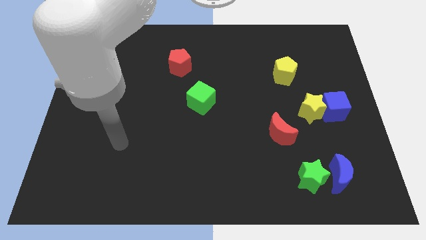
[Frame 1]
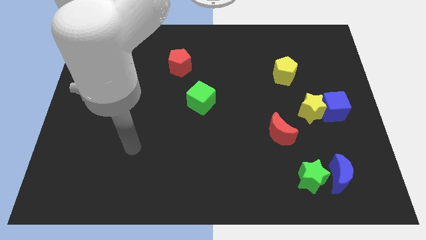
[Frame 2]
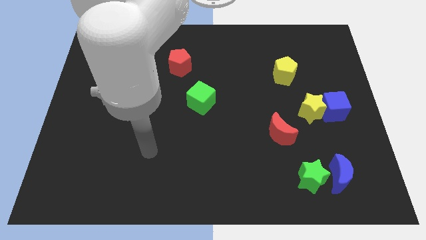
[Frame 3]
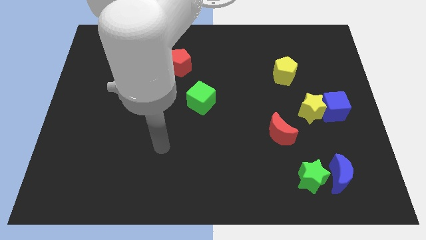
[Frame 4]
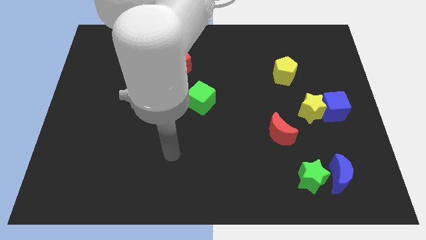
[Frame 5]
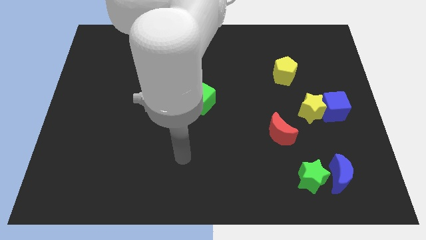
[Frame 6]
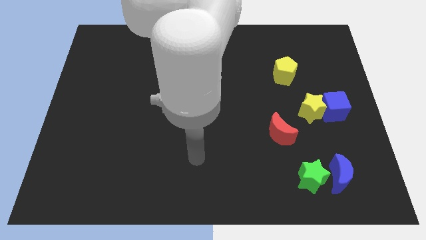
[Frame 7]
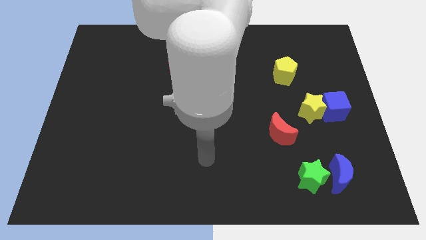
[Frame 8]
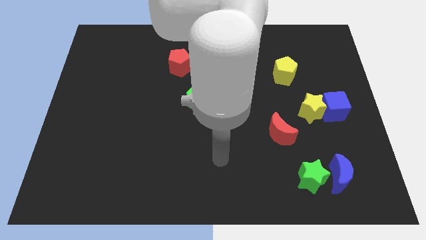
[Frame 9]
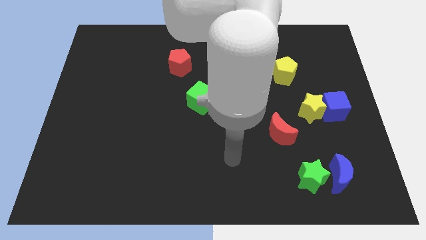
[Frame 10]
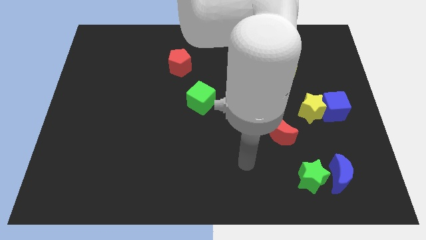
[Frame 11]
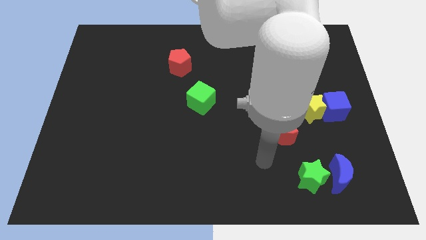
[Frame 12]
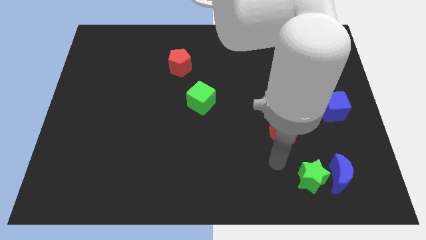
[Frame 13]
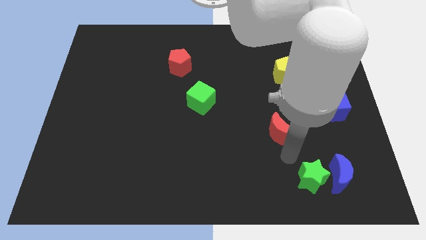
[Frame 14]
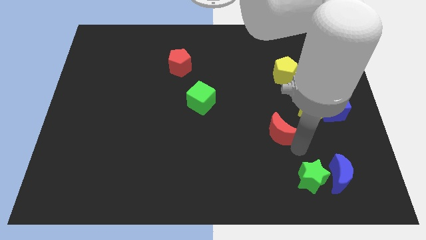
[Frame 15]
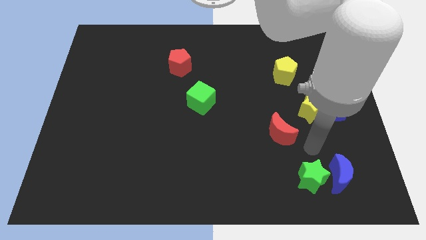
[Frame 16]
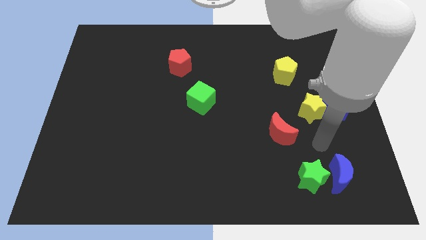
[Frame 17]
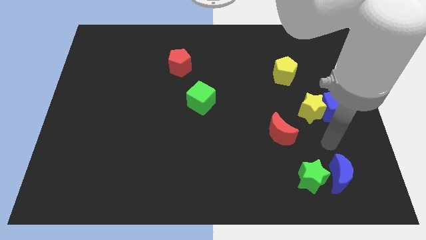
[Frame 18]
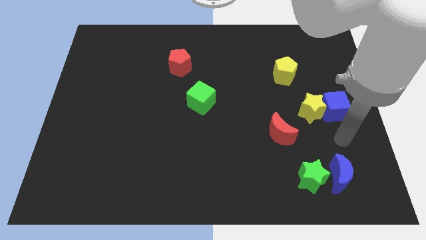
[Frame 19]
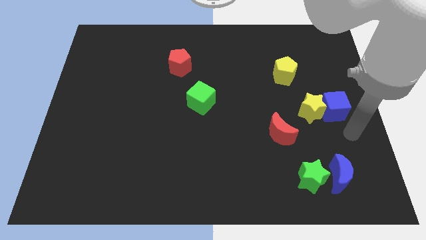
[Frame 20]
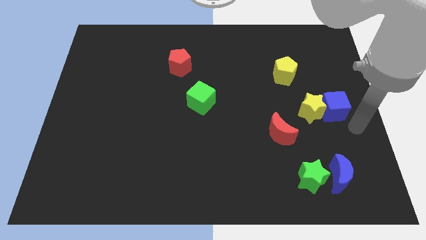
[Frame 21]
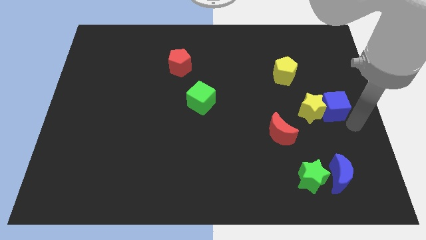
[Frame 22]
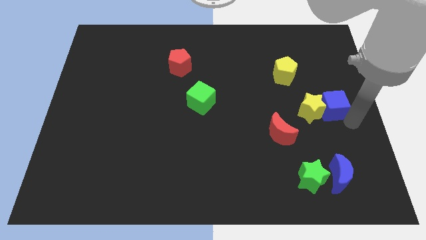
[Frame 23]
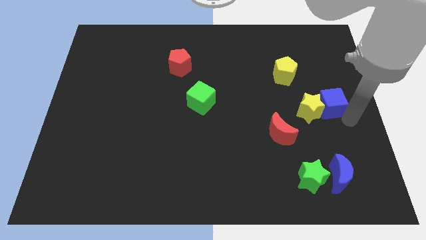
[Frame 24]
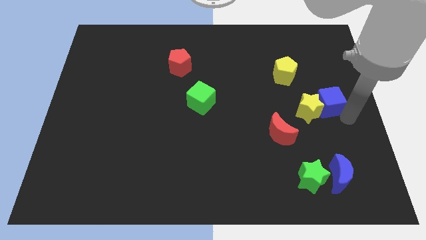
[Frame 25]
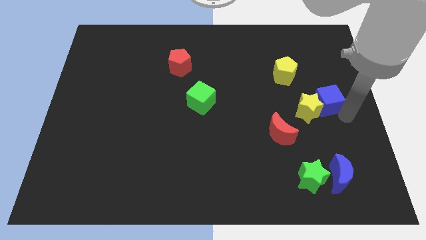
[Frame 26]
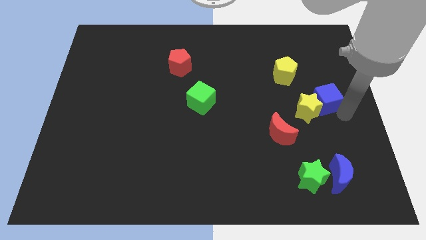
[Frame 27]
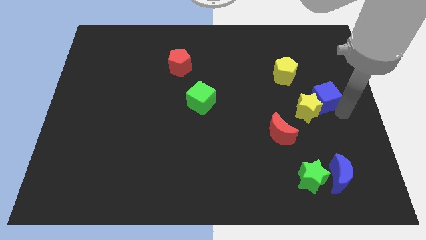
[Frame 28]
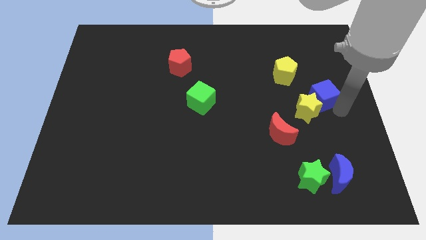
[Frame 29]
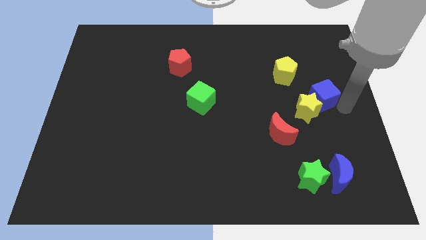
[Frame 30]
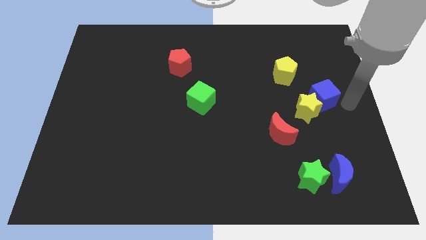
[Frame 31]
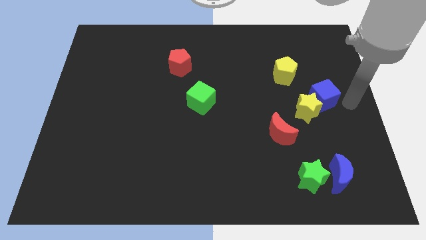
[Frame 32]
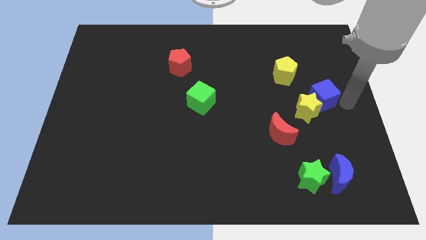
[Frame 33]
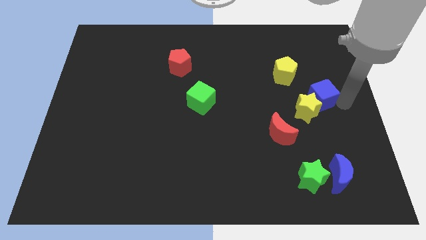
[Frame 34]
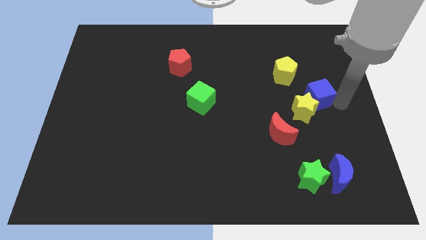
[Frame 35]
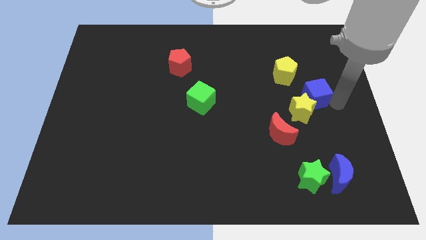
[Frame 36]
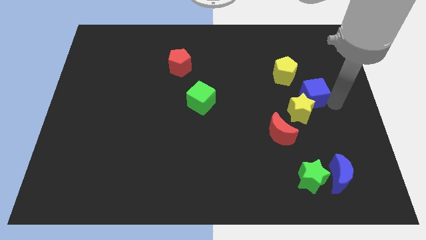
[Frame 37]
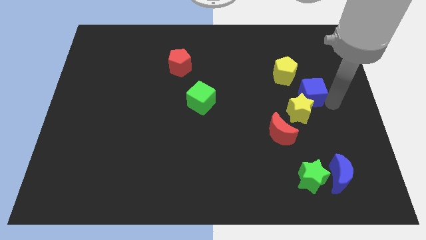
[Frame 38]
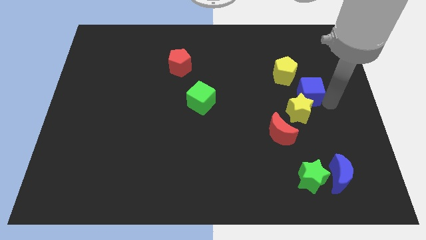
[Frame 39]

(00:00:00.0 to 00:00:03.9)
slide the blue cube a little up and to the left

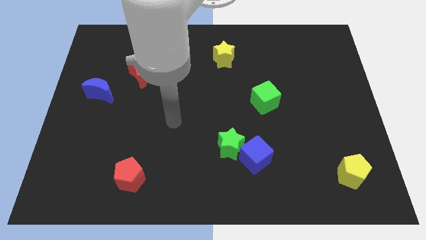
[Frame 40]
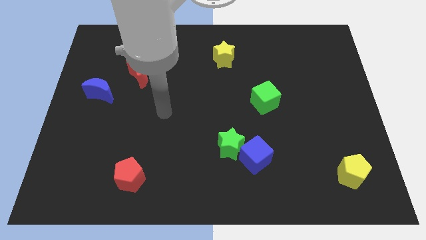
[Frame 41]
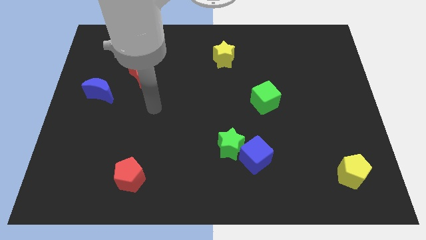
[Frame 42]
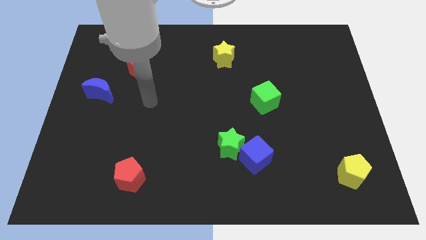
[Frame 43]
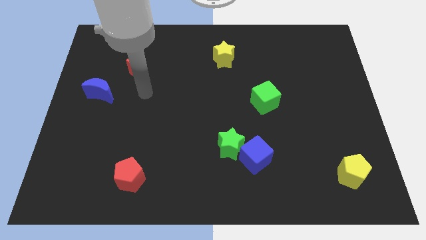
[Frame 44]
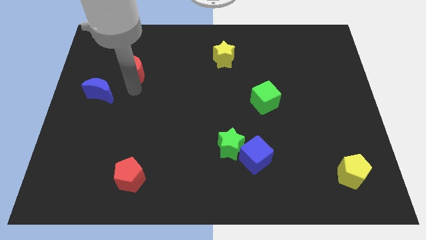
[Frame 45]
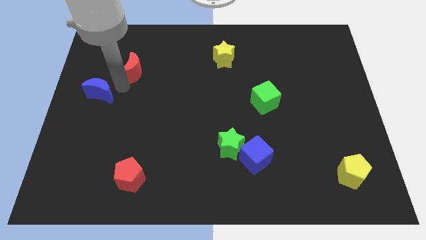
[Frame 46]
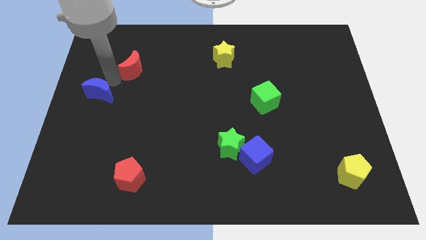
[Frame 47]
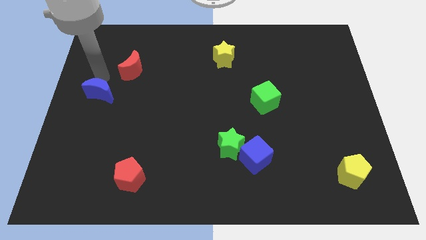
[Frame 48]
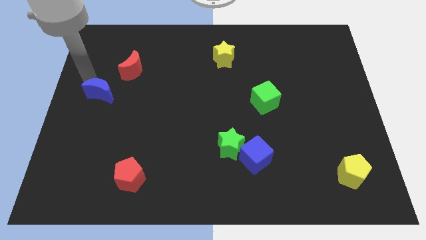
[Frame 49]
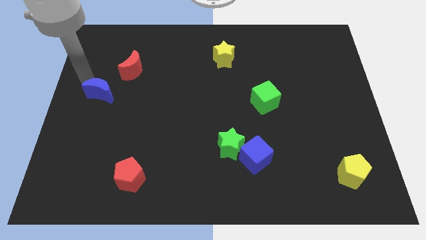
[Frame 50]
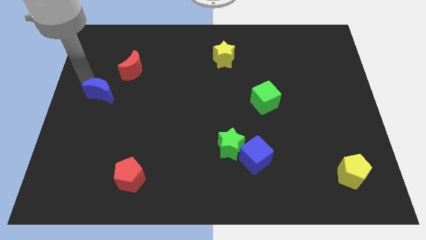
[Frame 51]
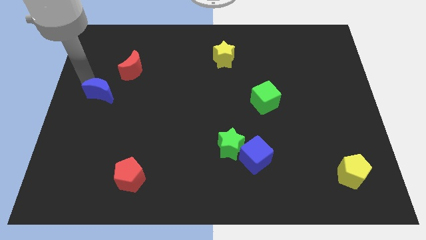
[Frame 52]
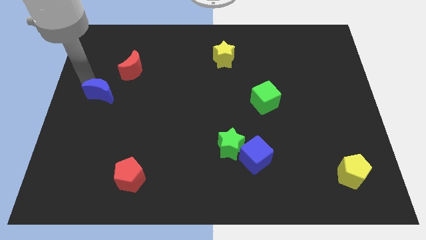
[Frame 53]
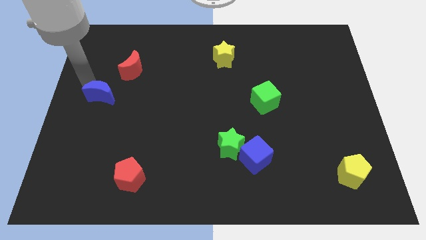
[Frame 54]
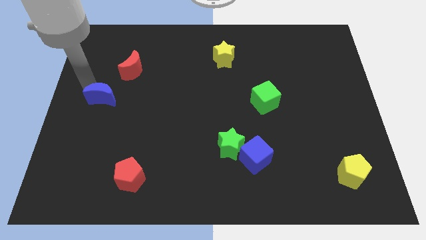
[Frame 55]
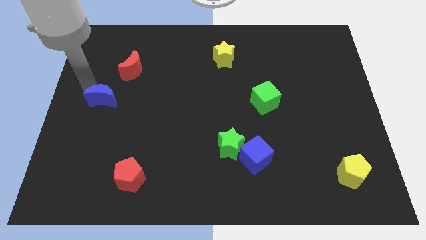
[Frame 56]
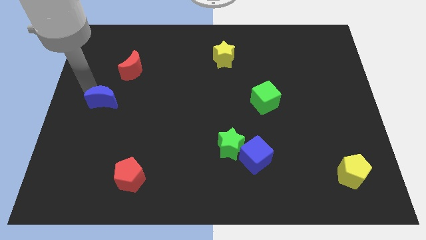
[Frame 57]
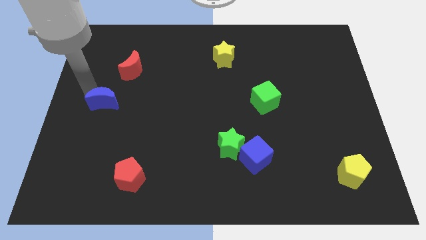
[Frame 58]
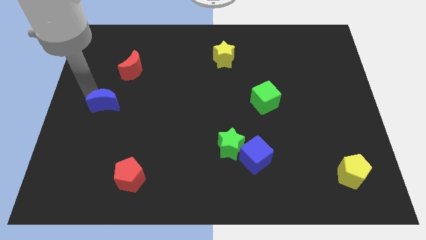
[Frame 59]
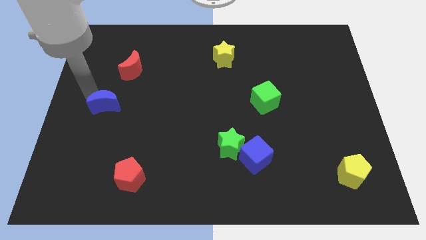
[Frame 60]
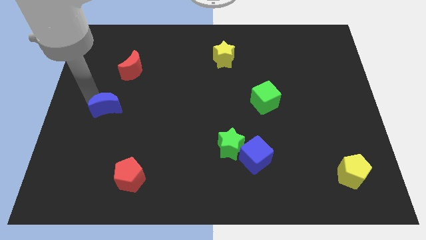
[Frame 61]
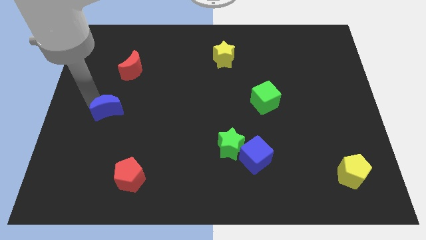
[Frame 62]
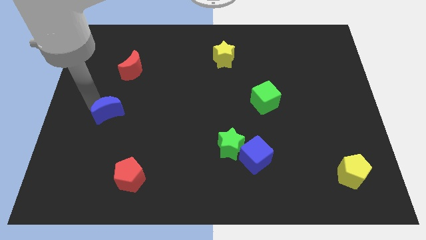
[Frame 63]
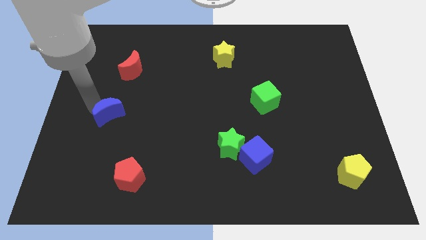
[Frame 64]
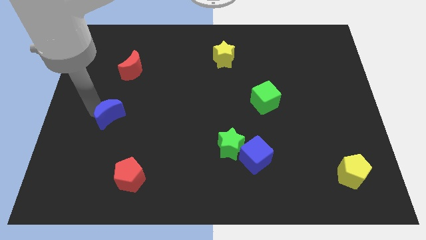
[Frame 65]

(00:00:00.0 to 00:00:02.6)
push the blue moon downwards and to the right a bit

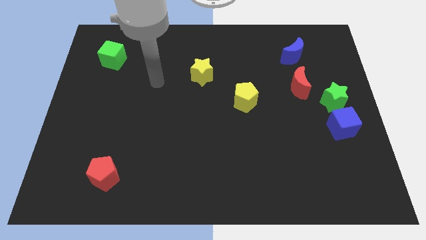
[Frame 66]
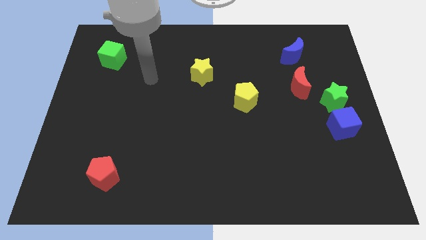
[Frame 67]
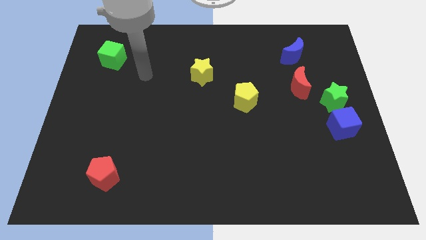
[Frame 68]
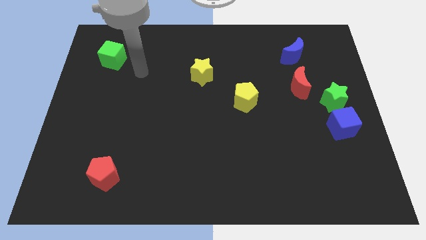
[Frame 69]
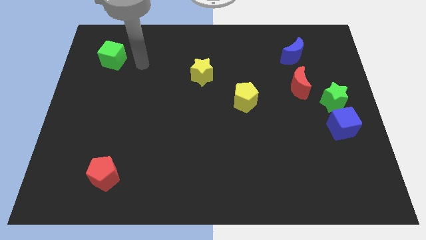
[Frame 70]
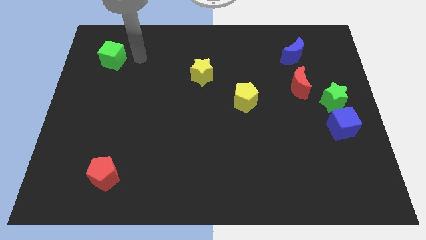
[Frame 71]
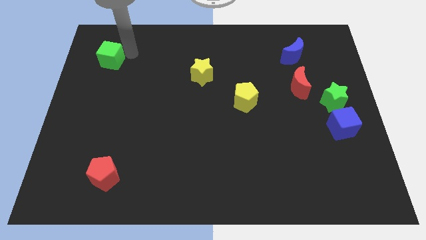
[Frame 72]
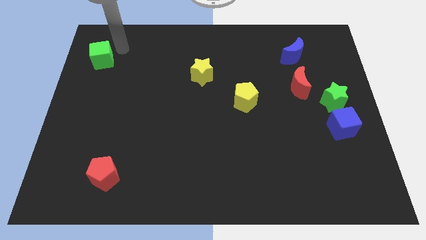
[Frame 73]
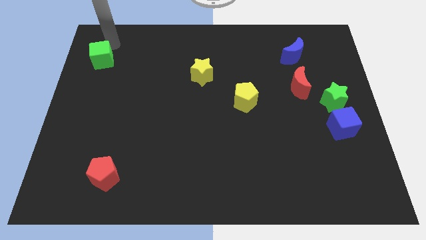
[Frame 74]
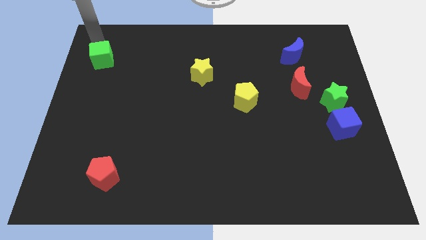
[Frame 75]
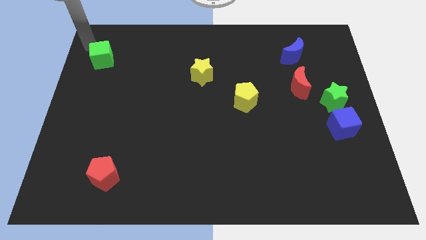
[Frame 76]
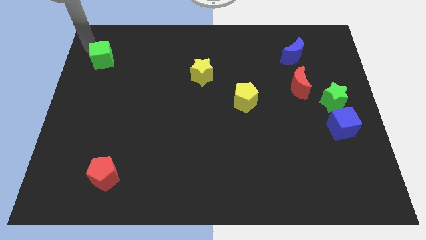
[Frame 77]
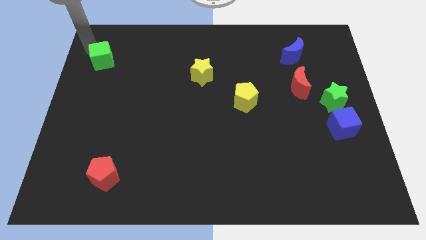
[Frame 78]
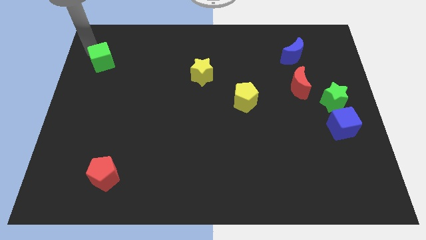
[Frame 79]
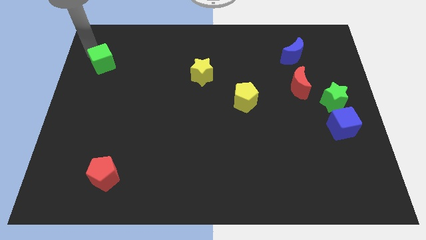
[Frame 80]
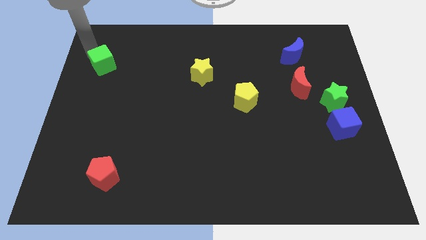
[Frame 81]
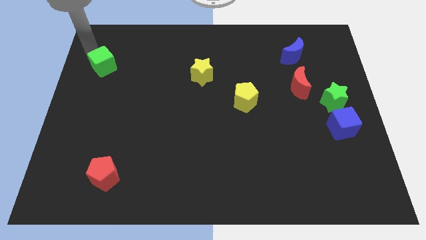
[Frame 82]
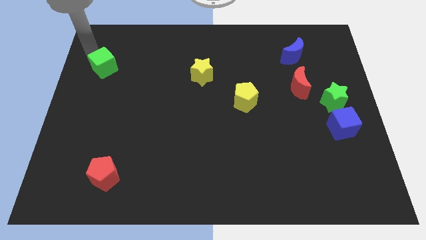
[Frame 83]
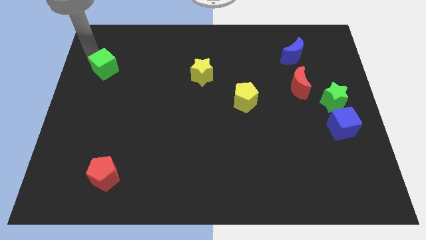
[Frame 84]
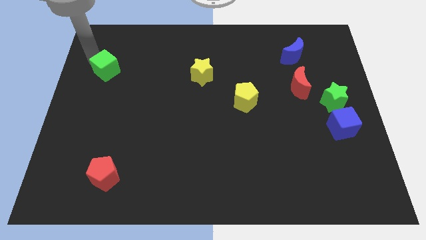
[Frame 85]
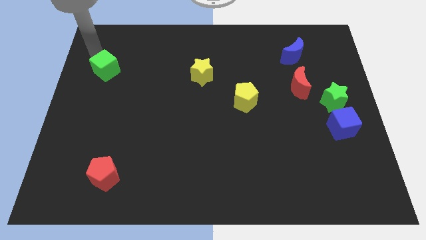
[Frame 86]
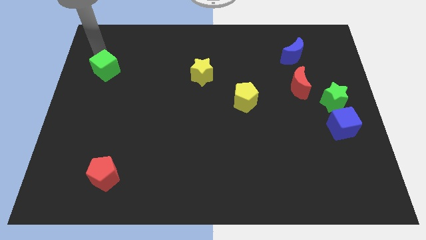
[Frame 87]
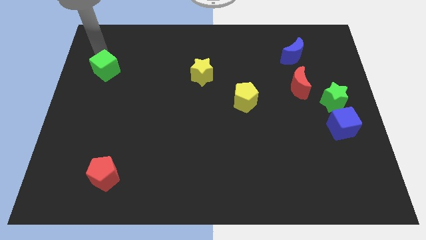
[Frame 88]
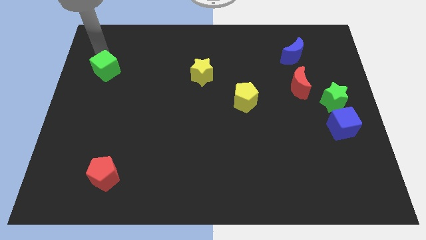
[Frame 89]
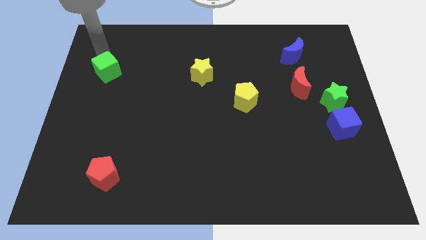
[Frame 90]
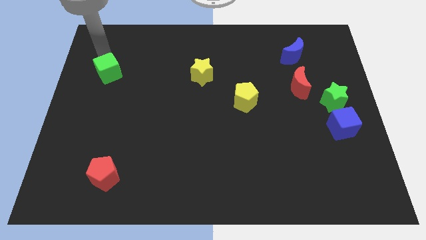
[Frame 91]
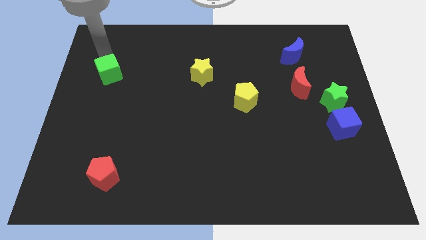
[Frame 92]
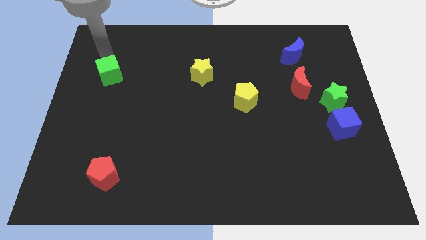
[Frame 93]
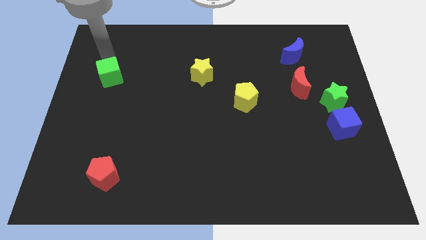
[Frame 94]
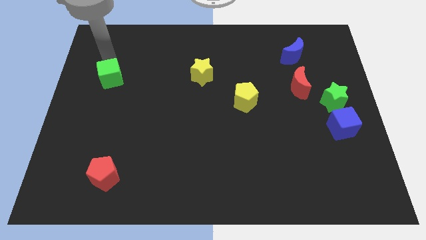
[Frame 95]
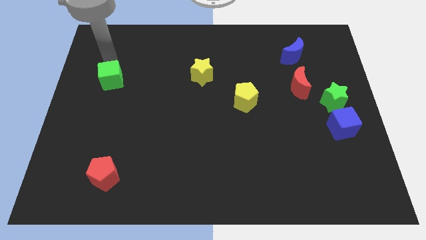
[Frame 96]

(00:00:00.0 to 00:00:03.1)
slightly push the green cube down
